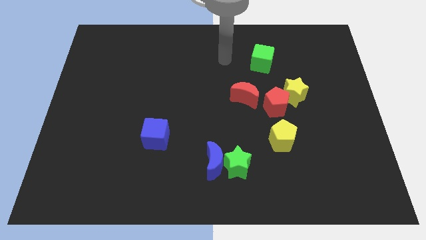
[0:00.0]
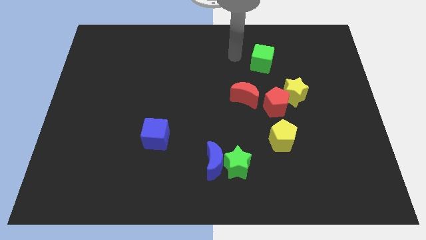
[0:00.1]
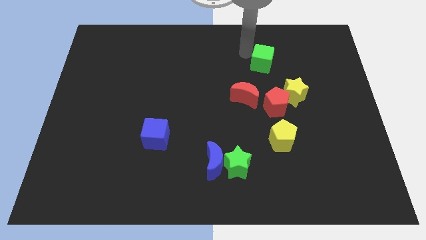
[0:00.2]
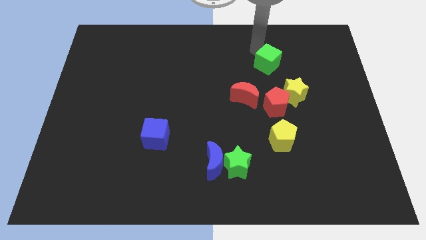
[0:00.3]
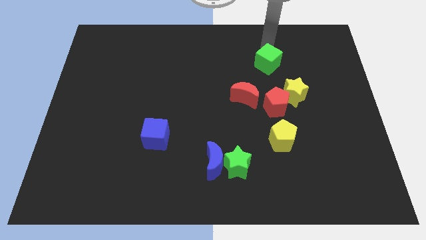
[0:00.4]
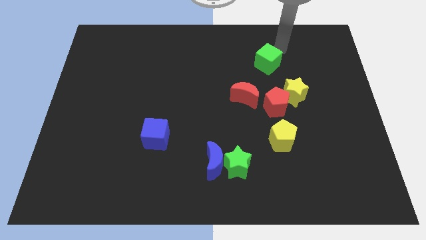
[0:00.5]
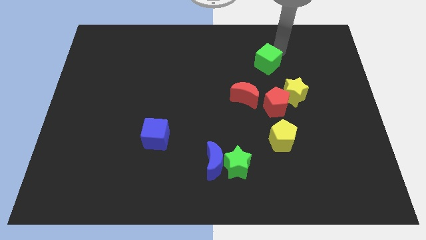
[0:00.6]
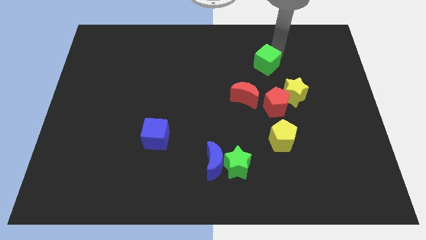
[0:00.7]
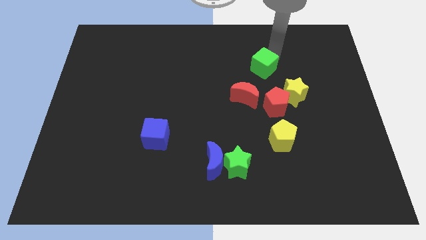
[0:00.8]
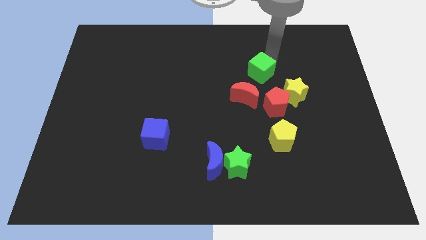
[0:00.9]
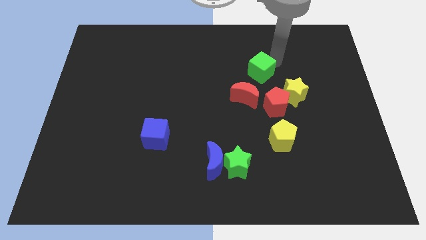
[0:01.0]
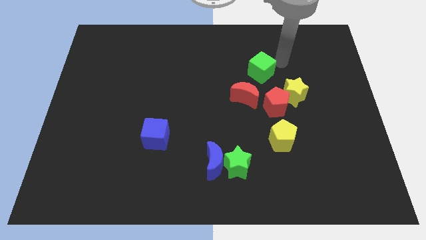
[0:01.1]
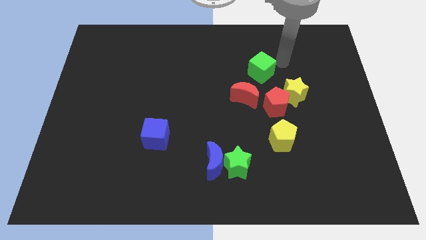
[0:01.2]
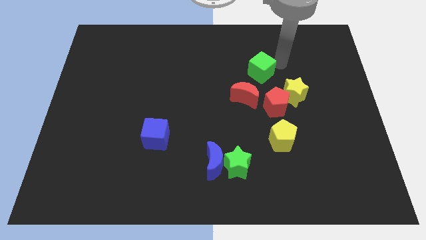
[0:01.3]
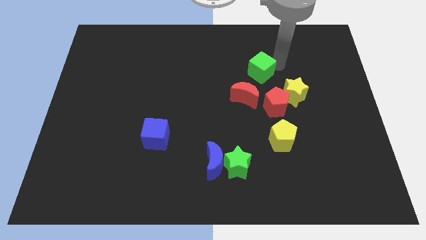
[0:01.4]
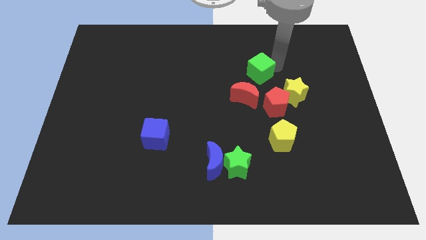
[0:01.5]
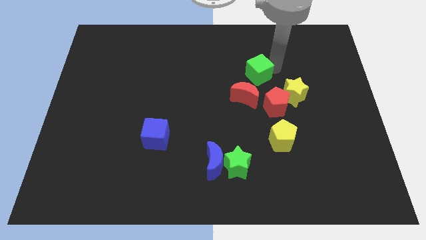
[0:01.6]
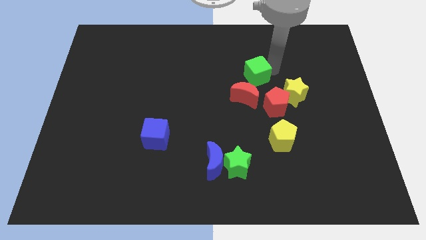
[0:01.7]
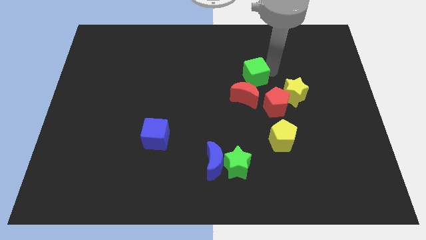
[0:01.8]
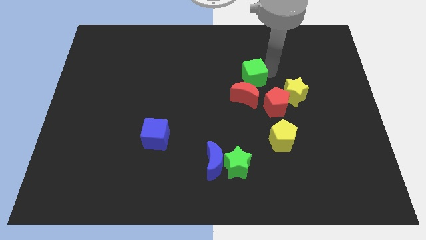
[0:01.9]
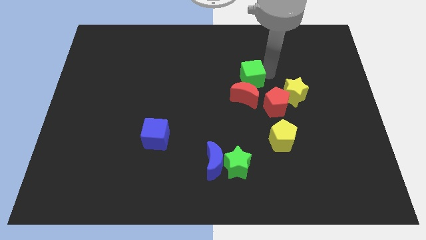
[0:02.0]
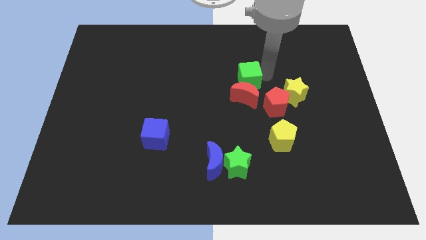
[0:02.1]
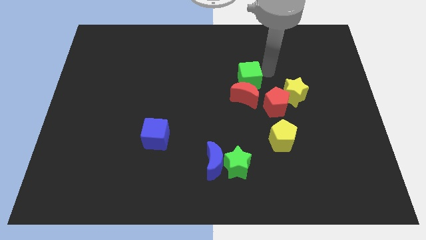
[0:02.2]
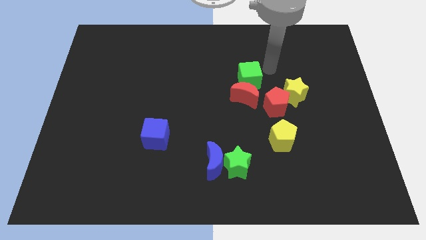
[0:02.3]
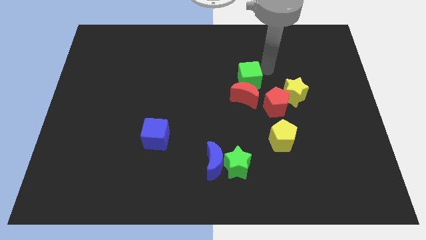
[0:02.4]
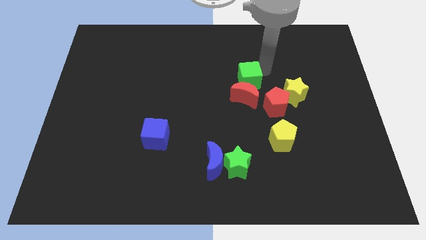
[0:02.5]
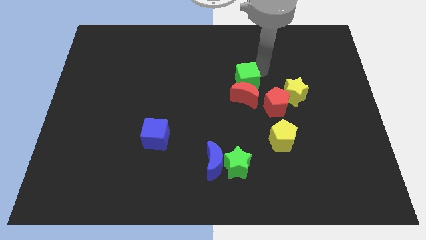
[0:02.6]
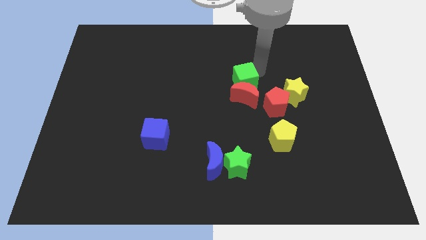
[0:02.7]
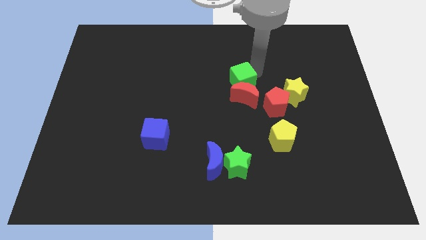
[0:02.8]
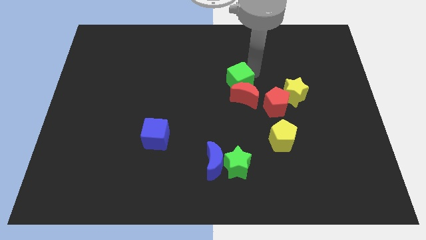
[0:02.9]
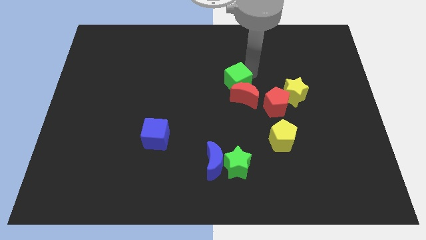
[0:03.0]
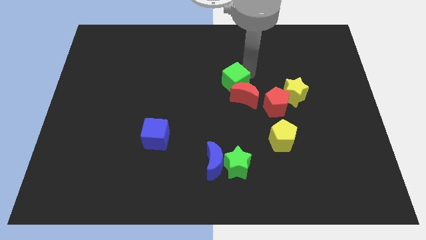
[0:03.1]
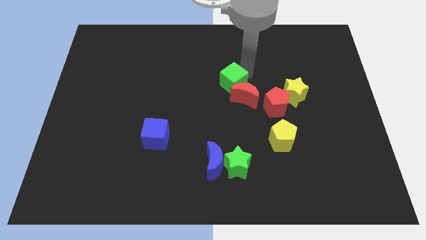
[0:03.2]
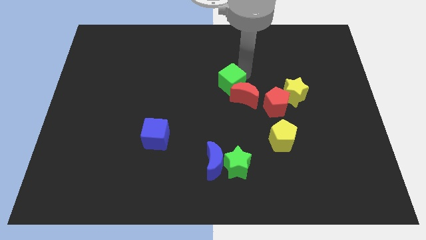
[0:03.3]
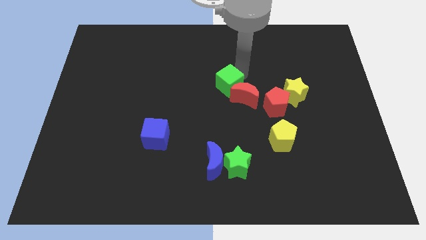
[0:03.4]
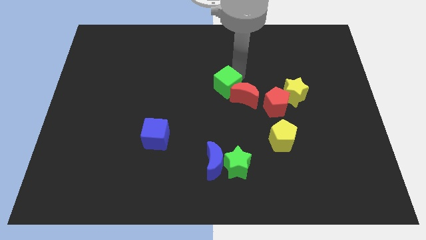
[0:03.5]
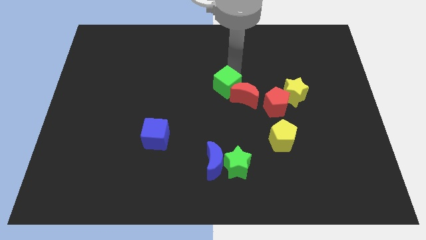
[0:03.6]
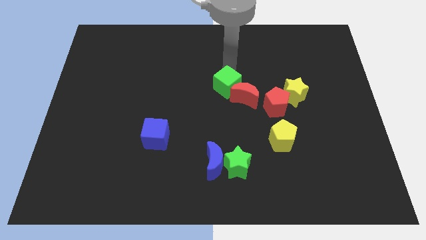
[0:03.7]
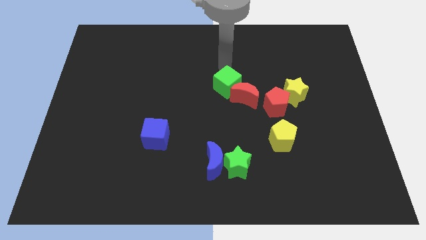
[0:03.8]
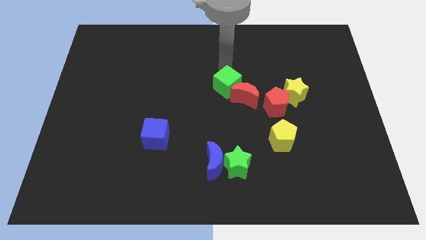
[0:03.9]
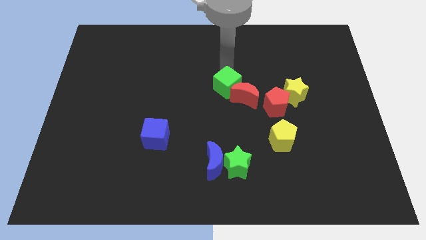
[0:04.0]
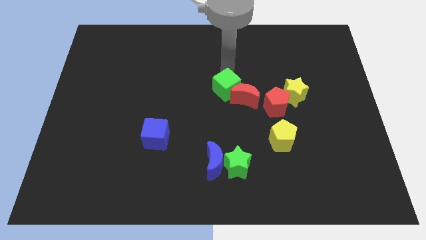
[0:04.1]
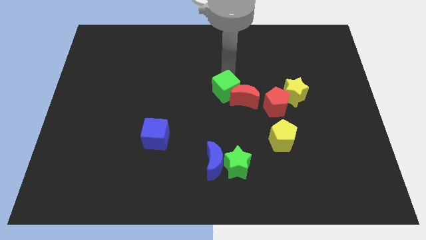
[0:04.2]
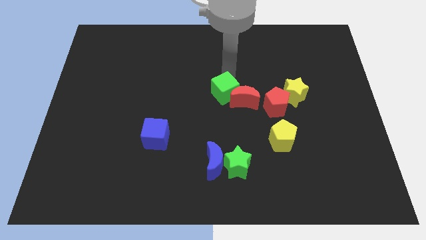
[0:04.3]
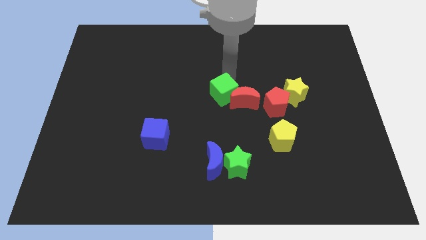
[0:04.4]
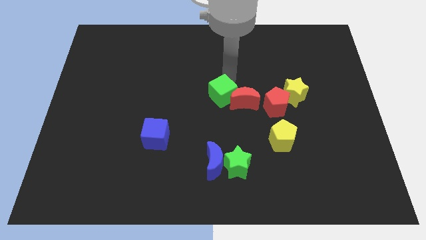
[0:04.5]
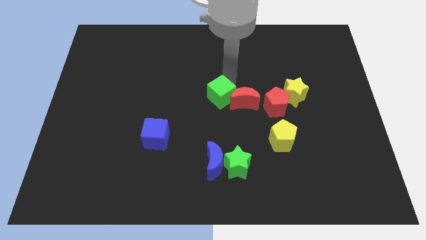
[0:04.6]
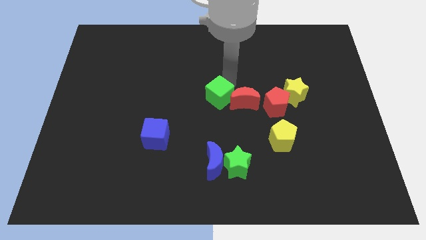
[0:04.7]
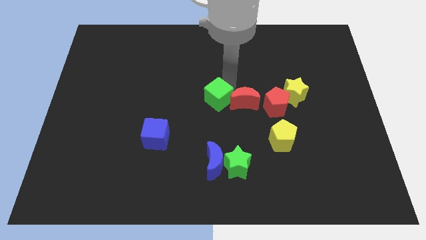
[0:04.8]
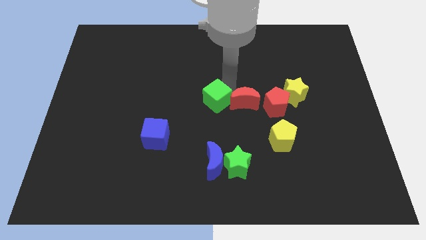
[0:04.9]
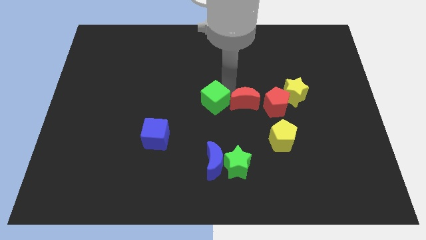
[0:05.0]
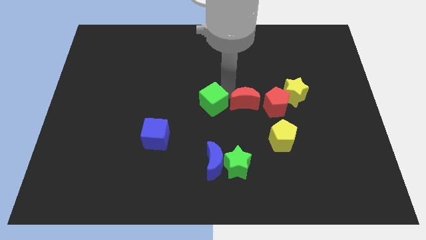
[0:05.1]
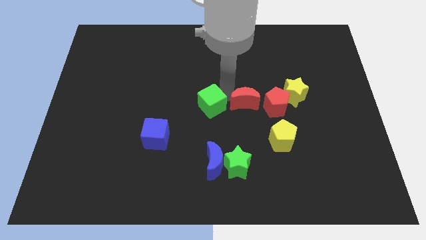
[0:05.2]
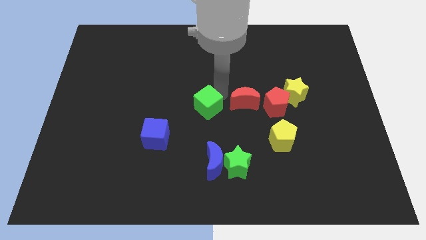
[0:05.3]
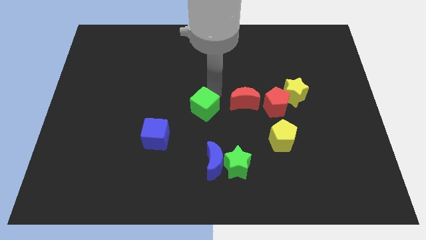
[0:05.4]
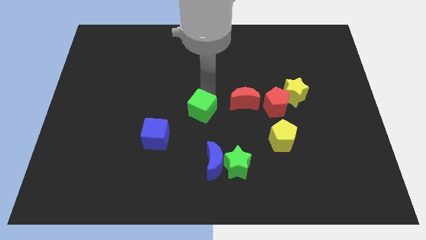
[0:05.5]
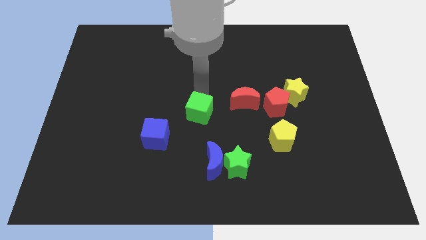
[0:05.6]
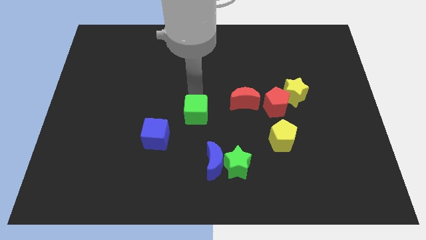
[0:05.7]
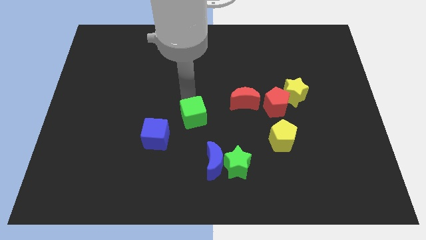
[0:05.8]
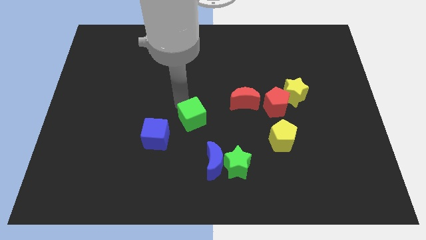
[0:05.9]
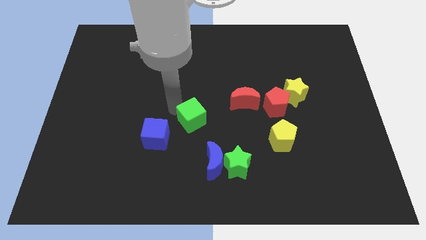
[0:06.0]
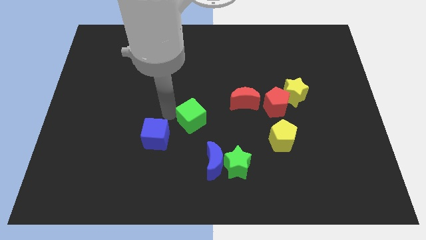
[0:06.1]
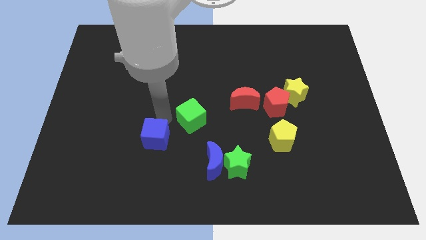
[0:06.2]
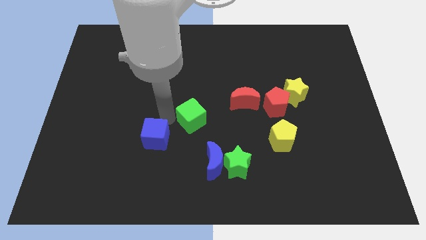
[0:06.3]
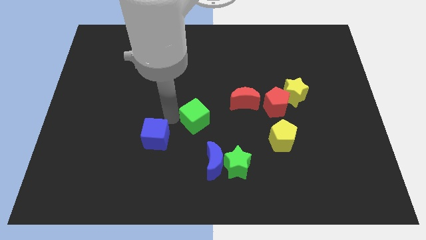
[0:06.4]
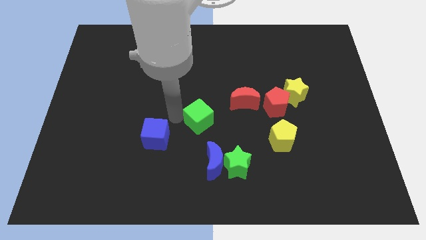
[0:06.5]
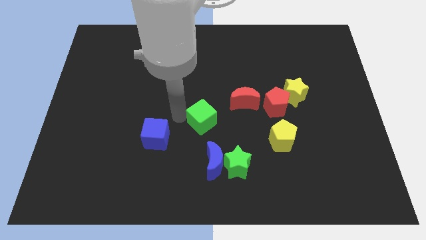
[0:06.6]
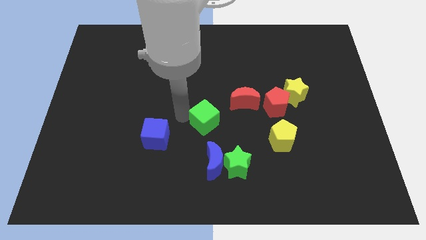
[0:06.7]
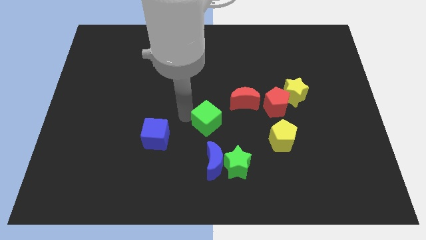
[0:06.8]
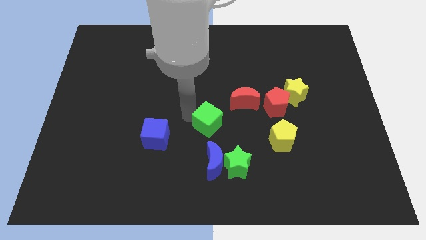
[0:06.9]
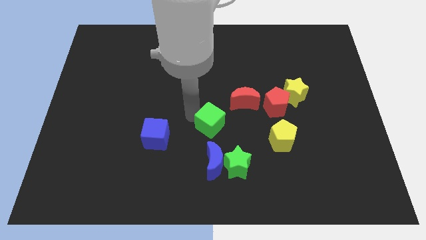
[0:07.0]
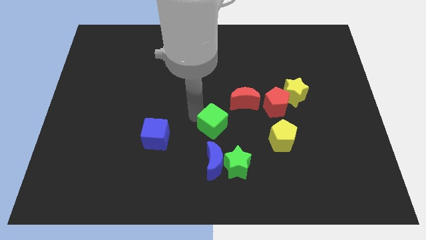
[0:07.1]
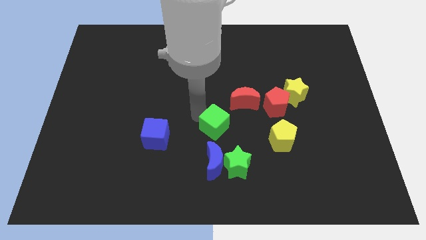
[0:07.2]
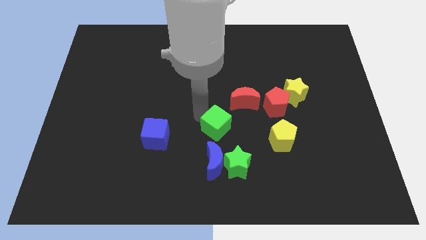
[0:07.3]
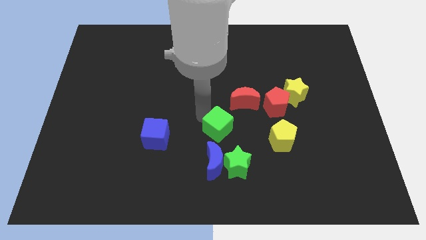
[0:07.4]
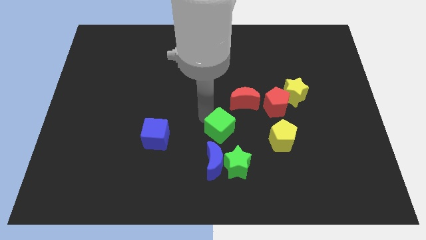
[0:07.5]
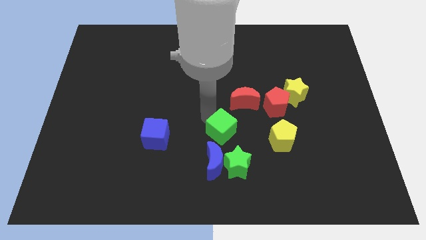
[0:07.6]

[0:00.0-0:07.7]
push the green cube to the top right side of the blue moon
